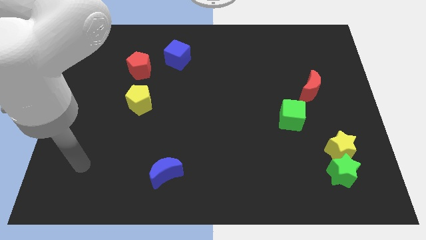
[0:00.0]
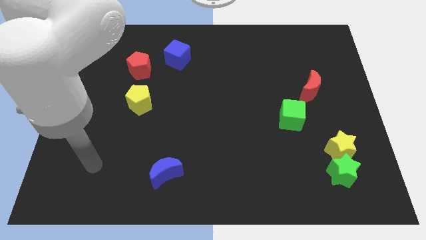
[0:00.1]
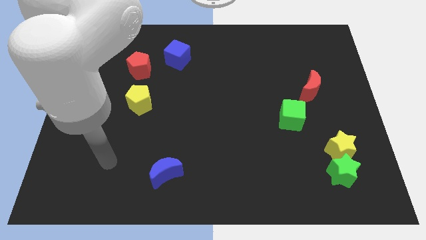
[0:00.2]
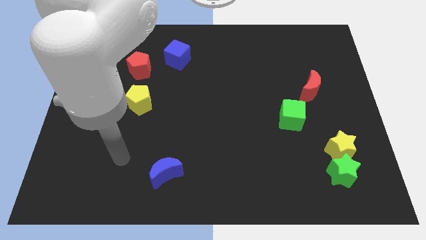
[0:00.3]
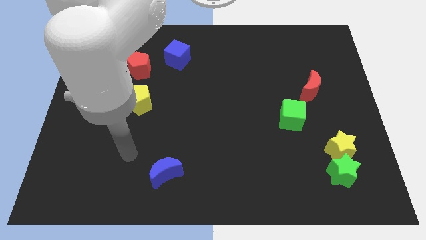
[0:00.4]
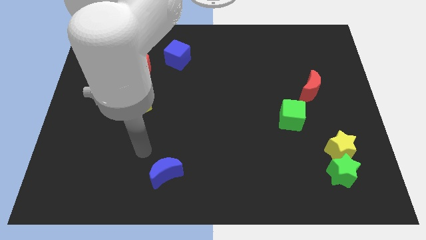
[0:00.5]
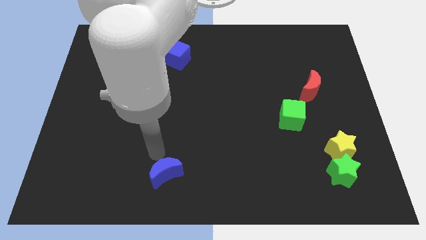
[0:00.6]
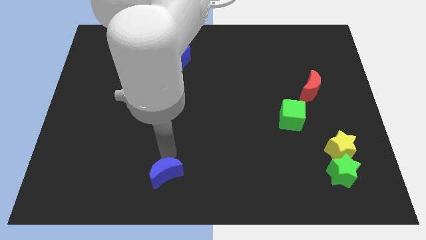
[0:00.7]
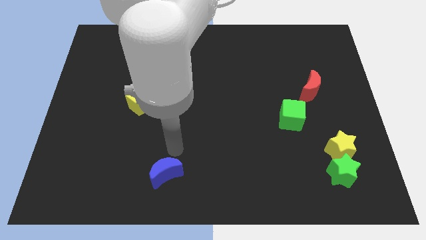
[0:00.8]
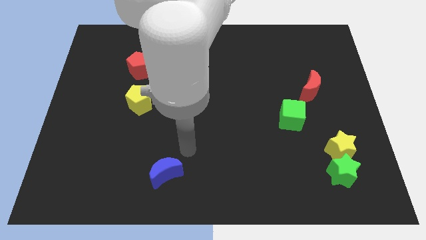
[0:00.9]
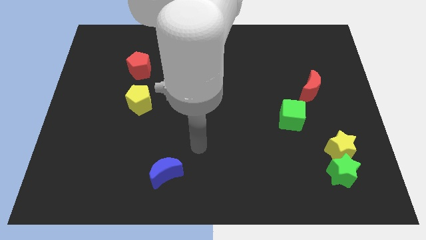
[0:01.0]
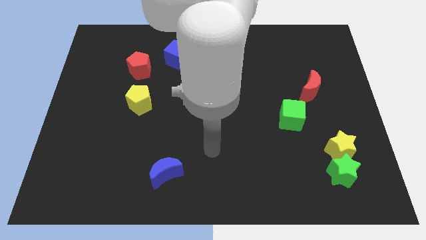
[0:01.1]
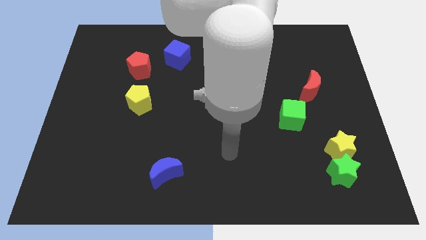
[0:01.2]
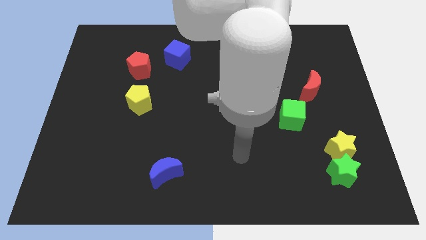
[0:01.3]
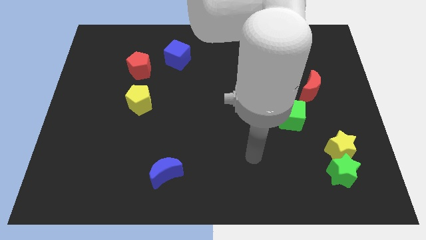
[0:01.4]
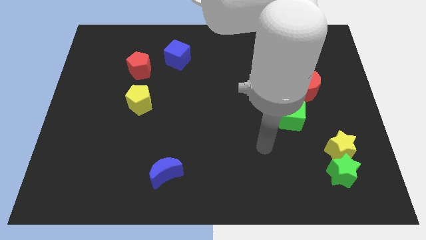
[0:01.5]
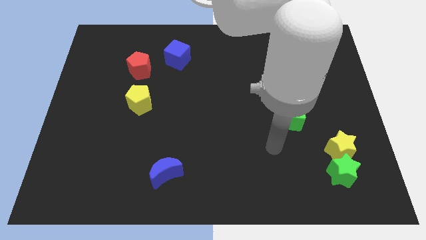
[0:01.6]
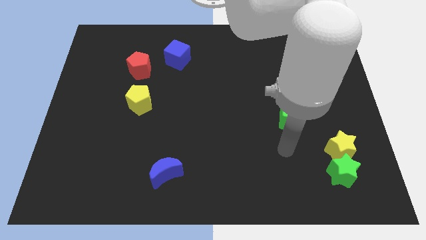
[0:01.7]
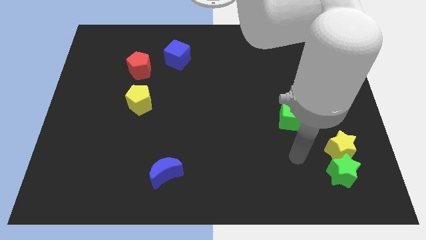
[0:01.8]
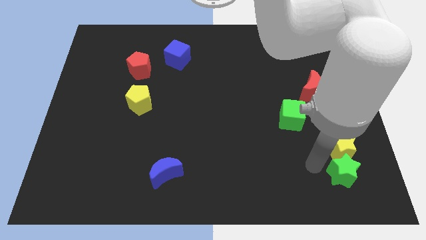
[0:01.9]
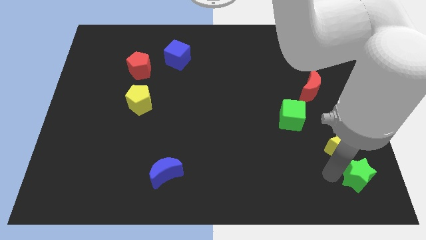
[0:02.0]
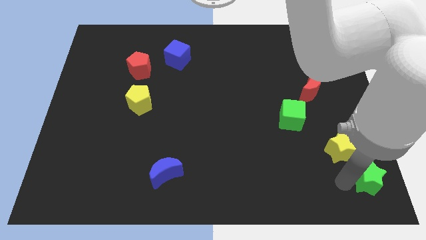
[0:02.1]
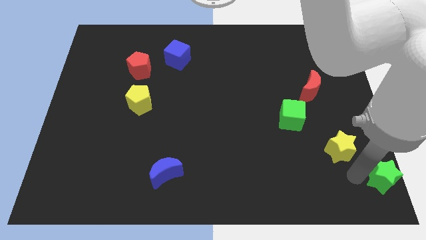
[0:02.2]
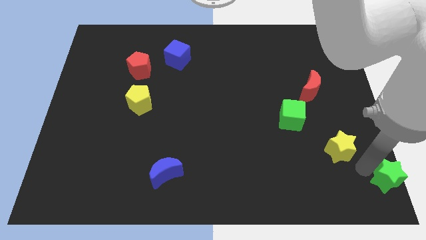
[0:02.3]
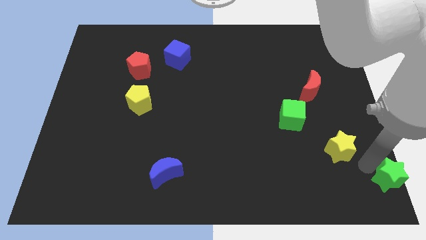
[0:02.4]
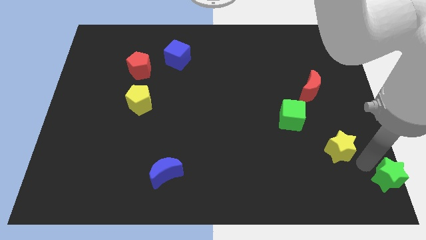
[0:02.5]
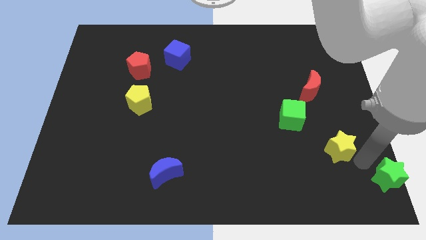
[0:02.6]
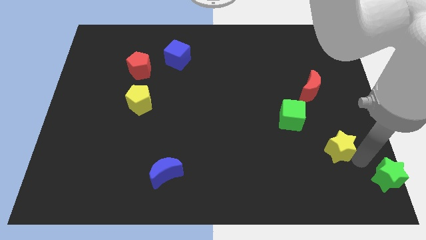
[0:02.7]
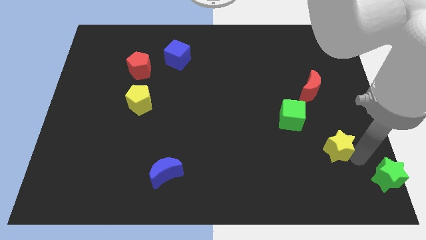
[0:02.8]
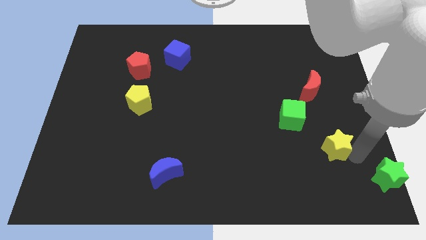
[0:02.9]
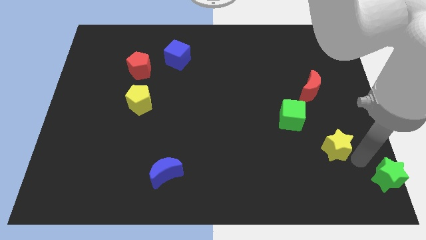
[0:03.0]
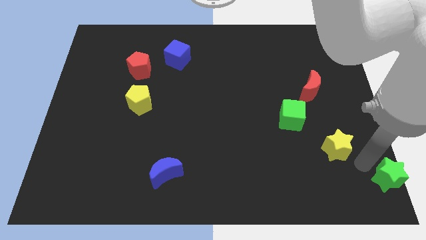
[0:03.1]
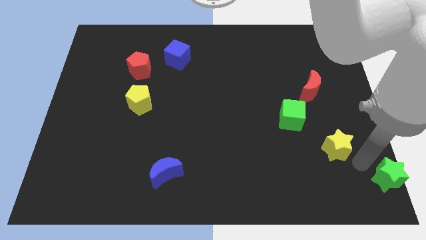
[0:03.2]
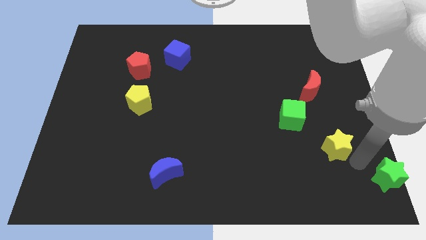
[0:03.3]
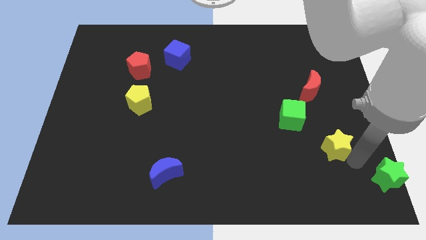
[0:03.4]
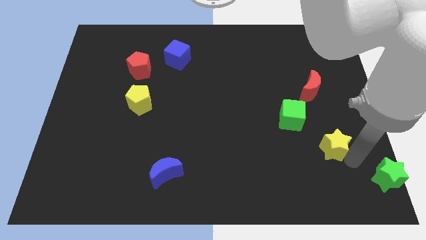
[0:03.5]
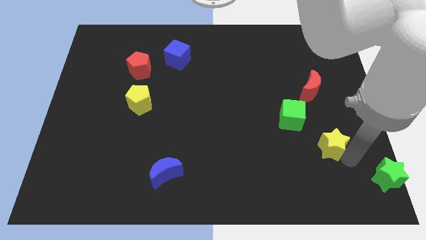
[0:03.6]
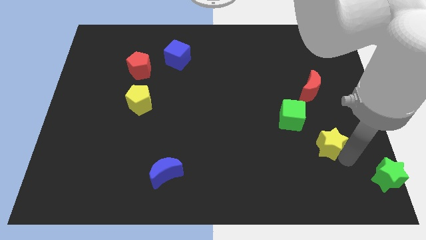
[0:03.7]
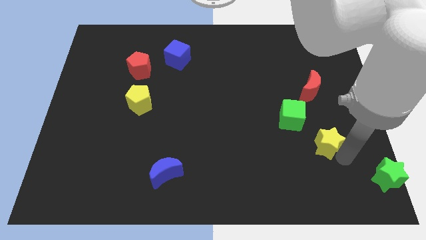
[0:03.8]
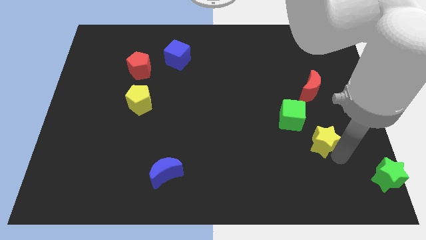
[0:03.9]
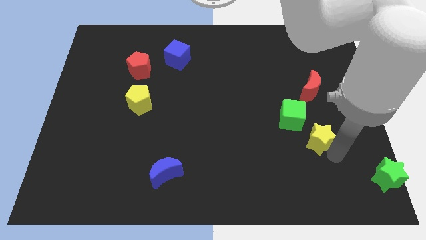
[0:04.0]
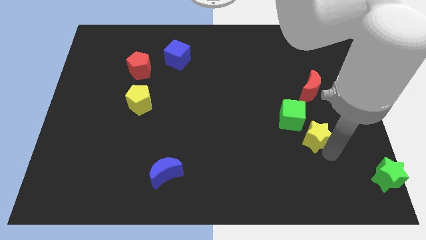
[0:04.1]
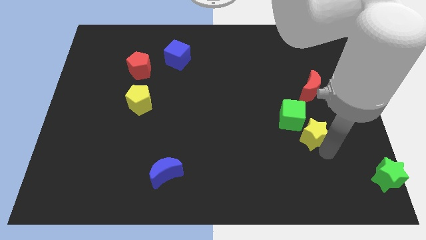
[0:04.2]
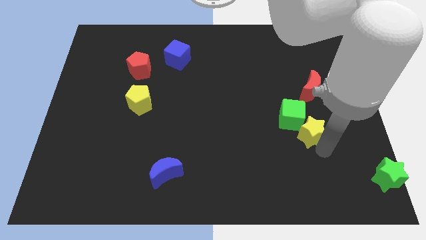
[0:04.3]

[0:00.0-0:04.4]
put the yellow star next to the green cube

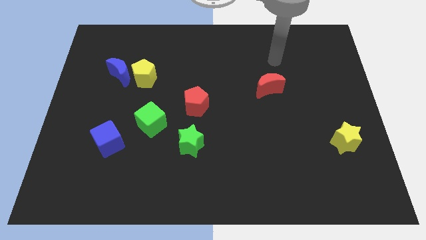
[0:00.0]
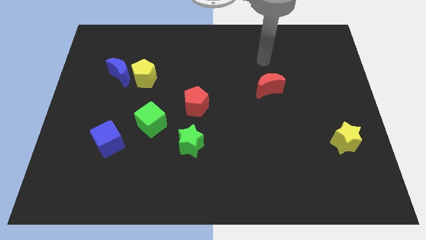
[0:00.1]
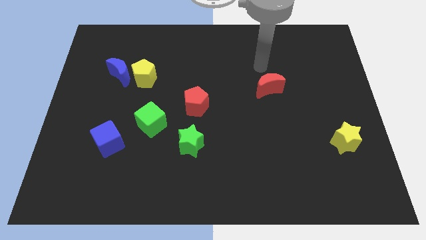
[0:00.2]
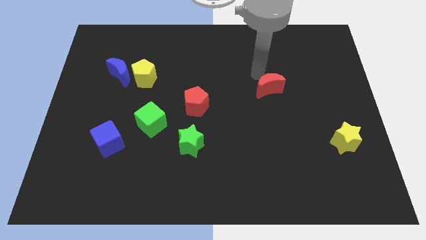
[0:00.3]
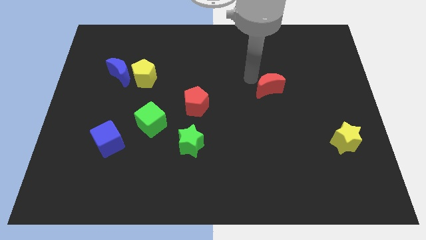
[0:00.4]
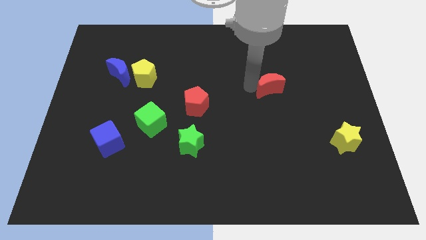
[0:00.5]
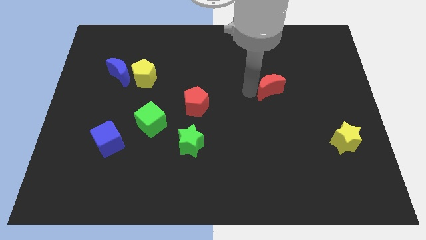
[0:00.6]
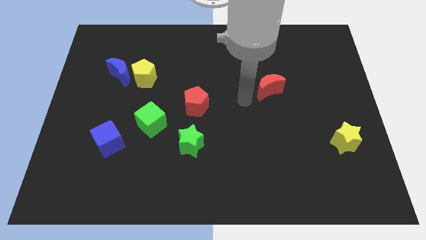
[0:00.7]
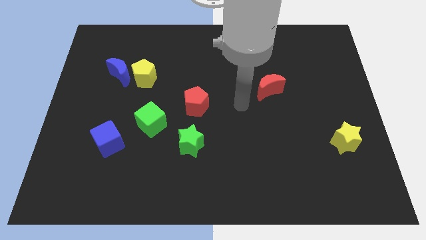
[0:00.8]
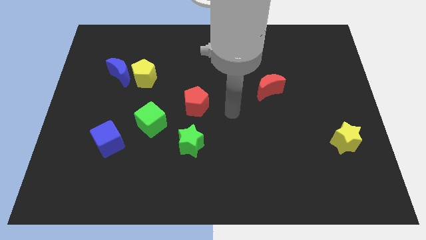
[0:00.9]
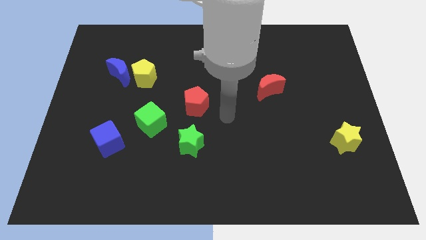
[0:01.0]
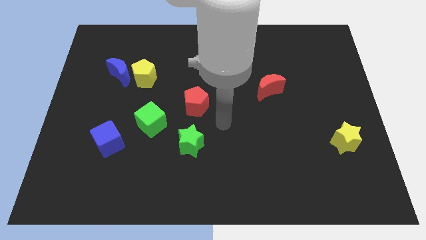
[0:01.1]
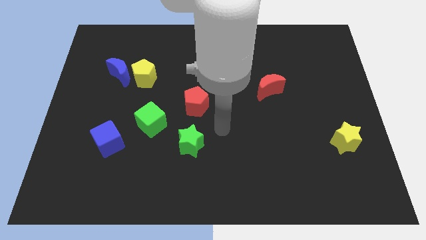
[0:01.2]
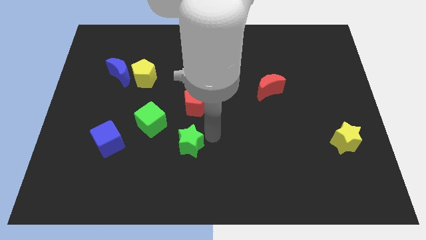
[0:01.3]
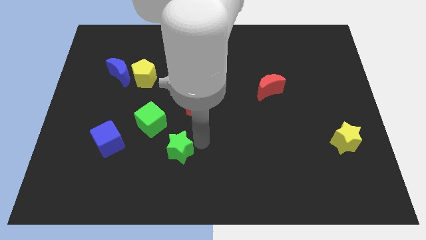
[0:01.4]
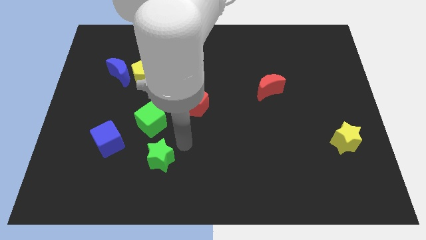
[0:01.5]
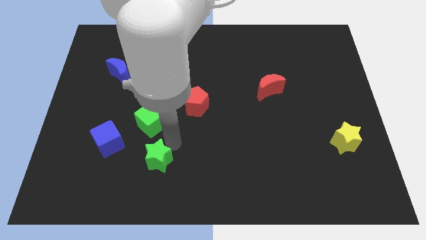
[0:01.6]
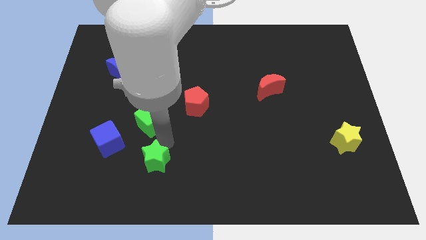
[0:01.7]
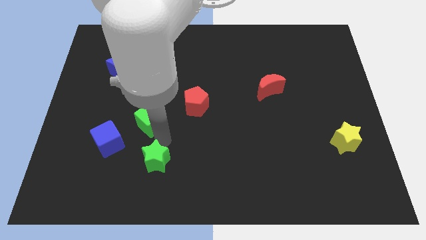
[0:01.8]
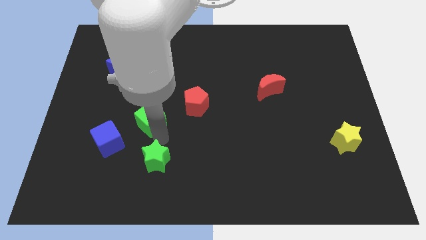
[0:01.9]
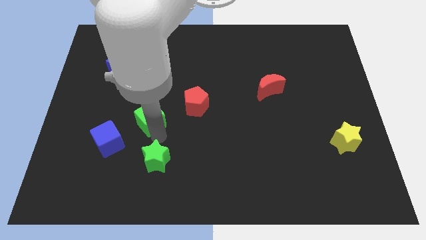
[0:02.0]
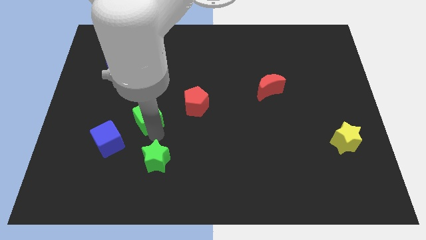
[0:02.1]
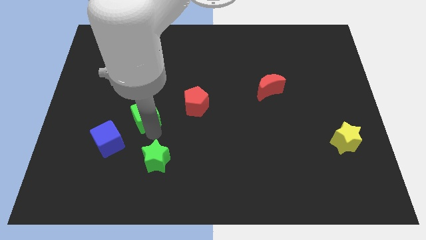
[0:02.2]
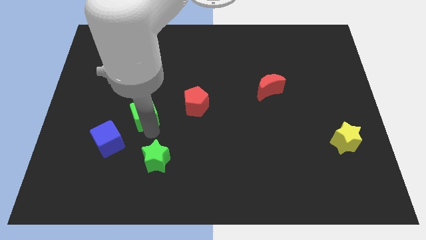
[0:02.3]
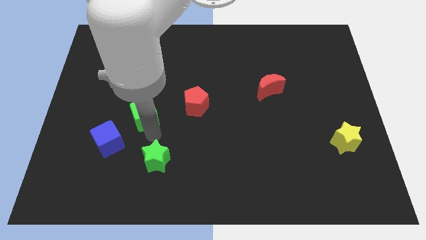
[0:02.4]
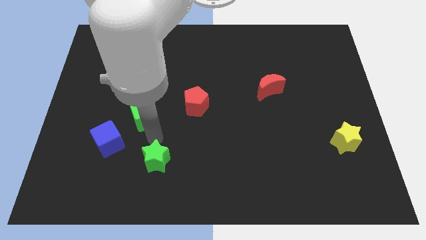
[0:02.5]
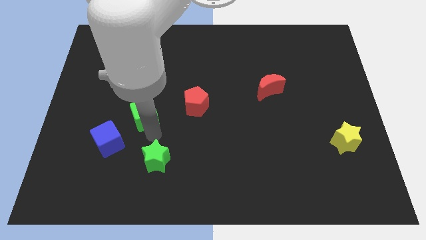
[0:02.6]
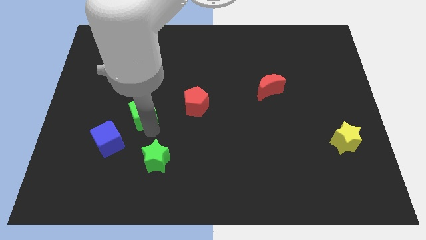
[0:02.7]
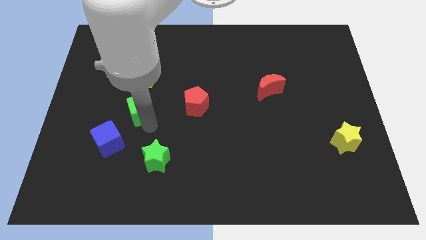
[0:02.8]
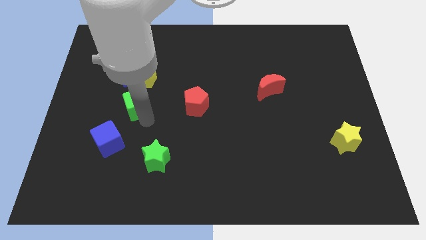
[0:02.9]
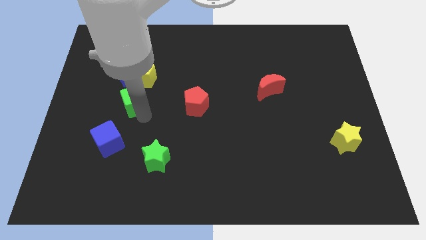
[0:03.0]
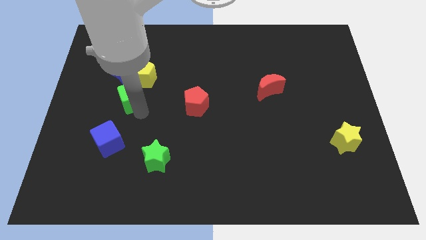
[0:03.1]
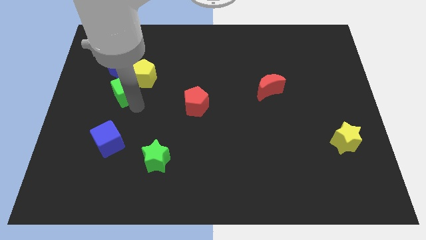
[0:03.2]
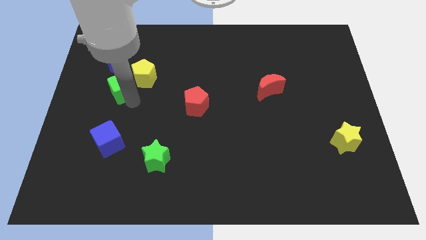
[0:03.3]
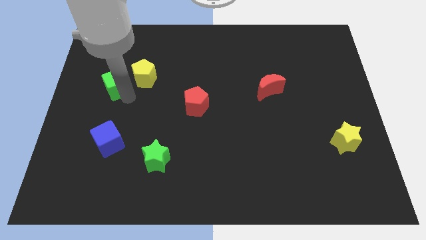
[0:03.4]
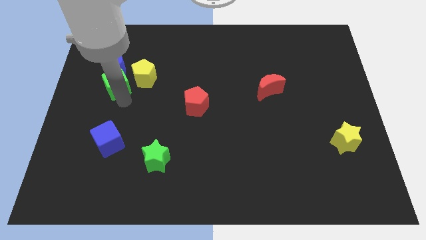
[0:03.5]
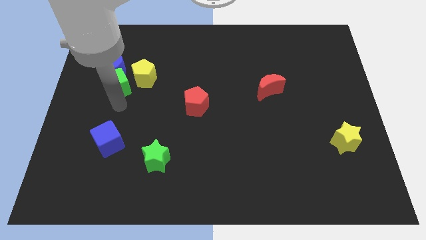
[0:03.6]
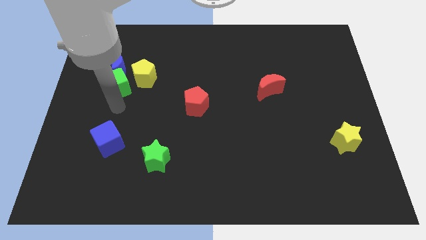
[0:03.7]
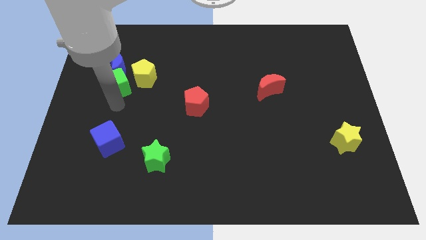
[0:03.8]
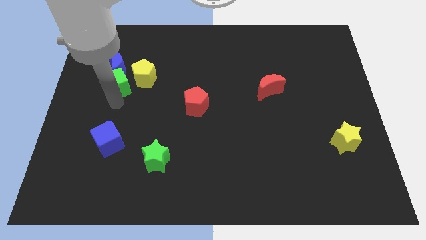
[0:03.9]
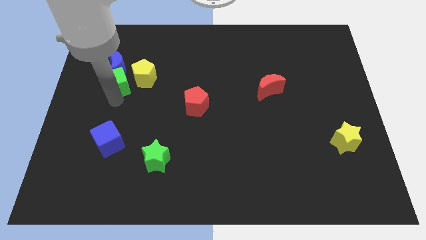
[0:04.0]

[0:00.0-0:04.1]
move the green cube next to the blue moon
